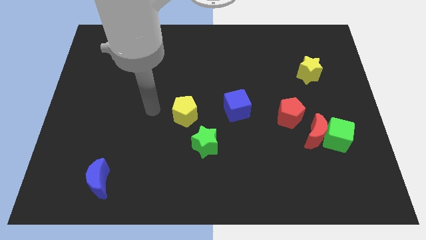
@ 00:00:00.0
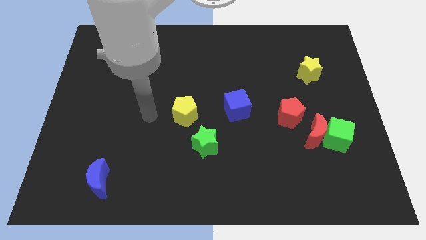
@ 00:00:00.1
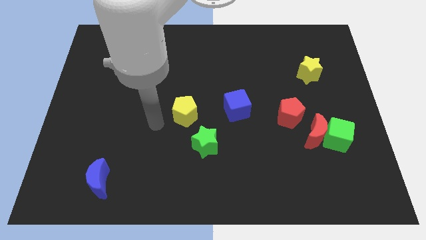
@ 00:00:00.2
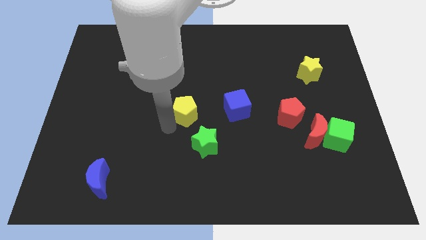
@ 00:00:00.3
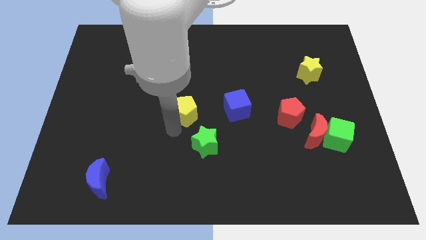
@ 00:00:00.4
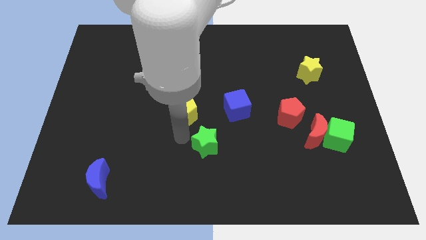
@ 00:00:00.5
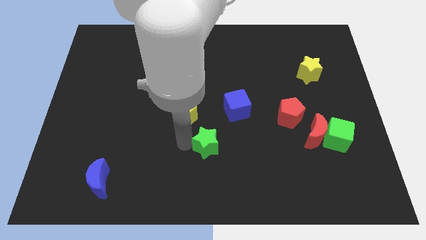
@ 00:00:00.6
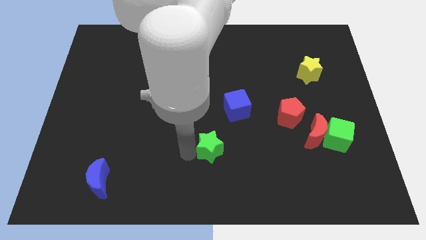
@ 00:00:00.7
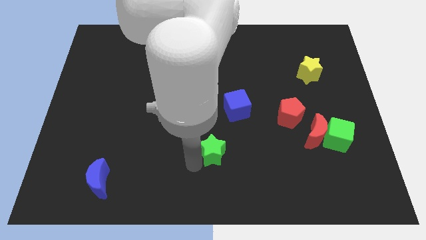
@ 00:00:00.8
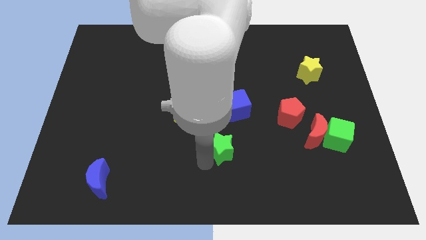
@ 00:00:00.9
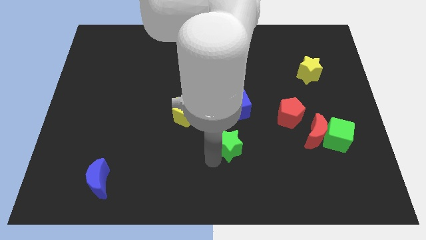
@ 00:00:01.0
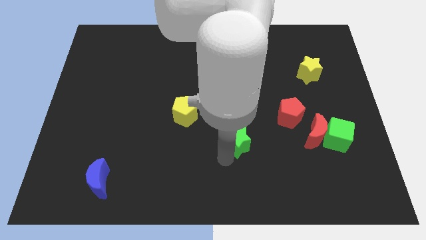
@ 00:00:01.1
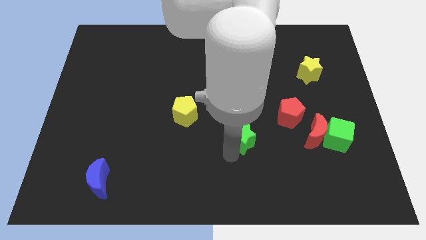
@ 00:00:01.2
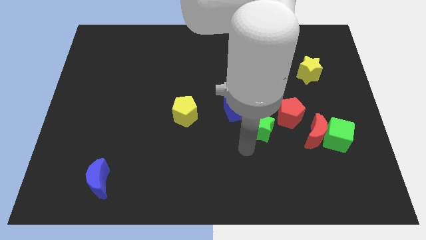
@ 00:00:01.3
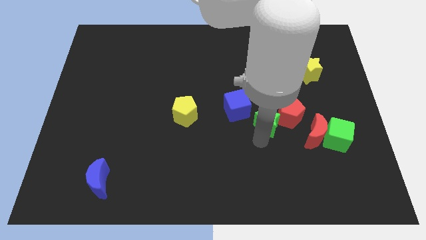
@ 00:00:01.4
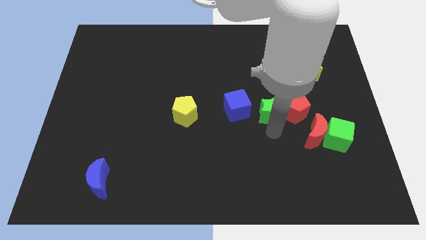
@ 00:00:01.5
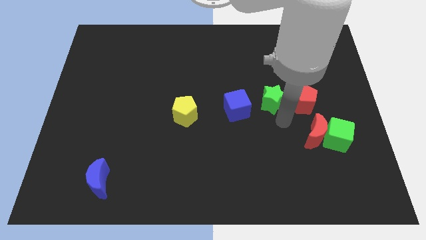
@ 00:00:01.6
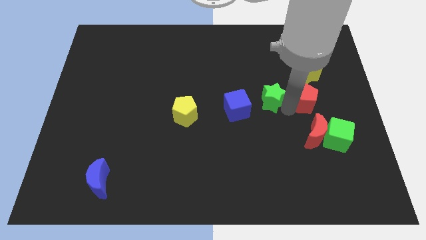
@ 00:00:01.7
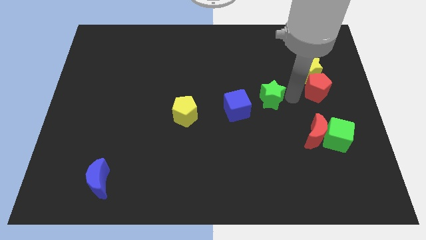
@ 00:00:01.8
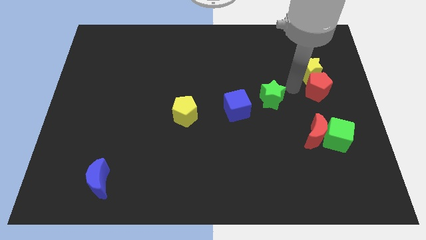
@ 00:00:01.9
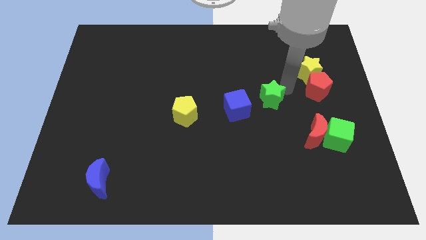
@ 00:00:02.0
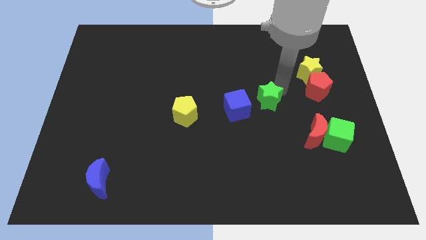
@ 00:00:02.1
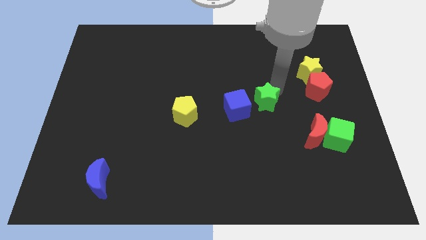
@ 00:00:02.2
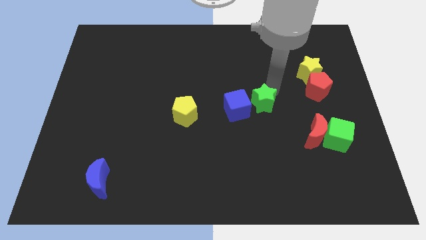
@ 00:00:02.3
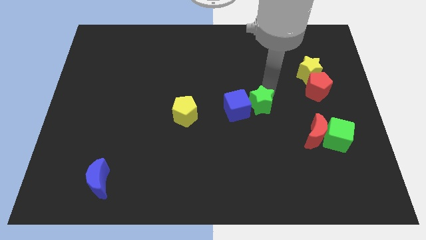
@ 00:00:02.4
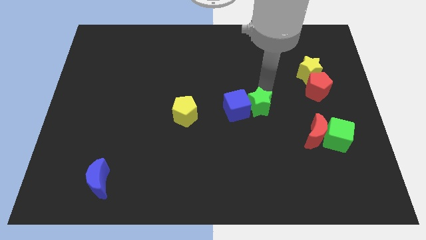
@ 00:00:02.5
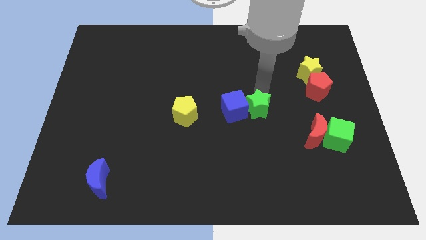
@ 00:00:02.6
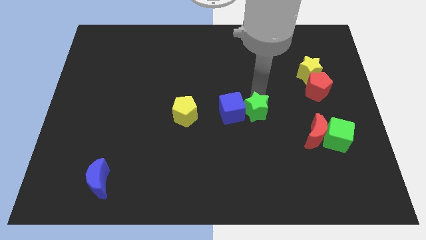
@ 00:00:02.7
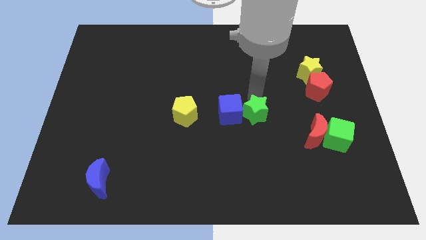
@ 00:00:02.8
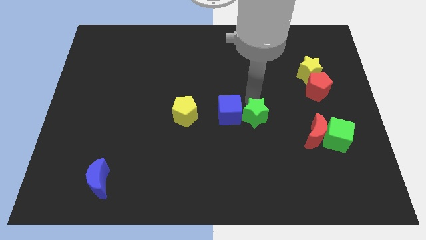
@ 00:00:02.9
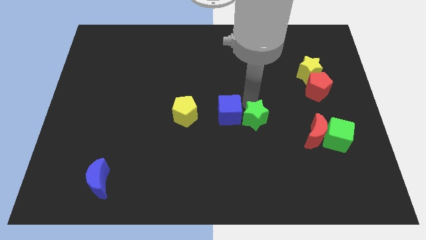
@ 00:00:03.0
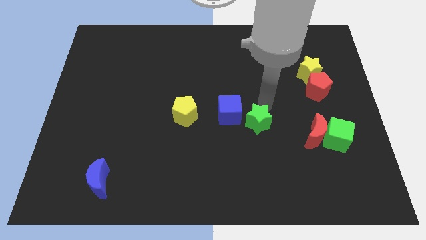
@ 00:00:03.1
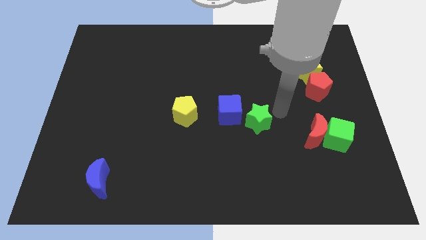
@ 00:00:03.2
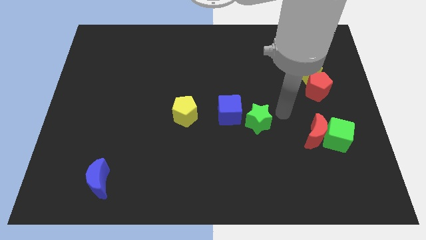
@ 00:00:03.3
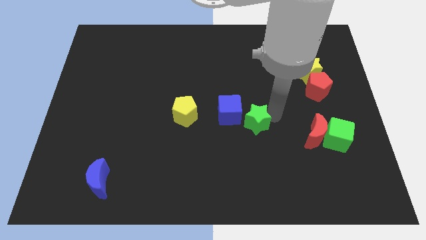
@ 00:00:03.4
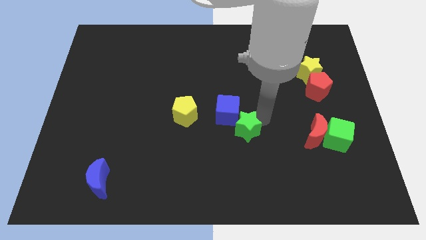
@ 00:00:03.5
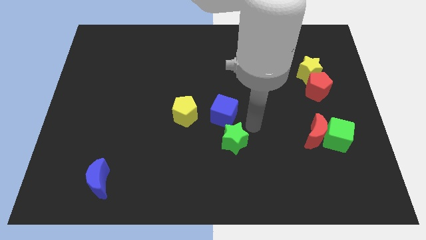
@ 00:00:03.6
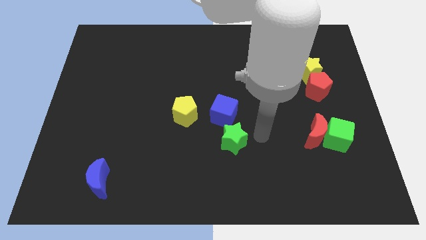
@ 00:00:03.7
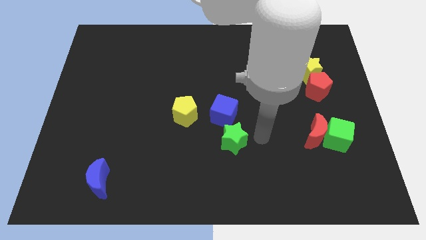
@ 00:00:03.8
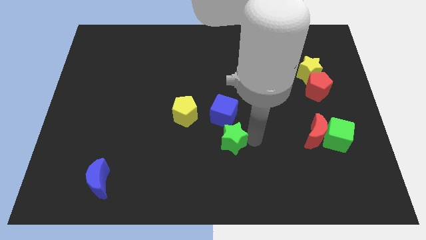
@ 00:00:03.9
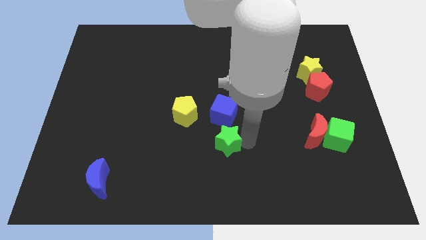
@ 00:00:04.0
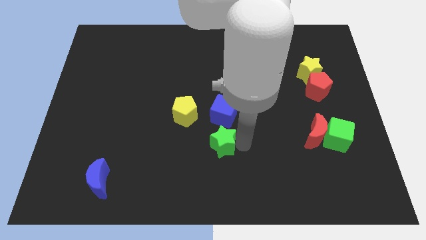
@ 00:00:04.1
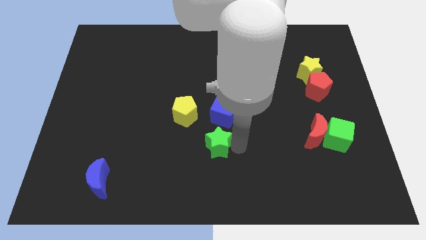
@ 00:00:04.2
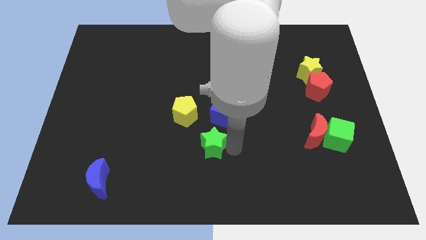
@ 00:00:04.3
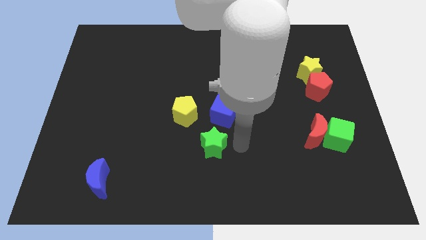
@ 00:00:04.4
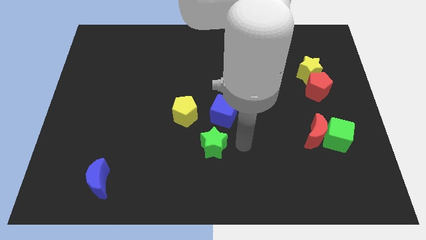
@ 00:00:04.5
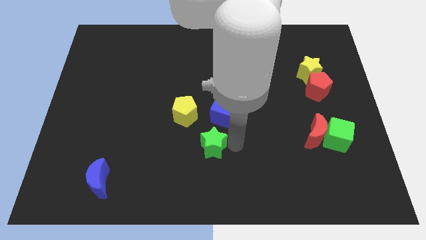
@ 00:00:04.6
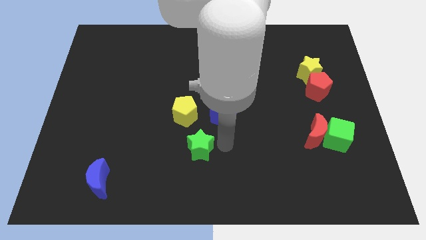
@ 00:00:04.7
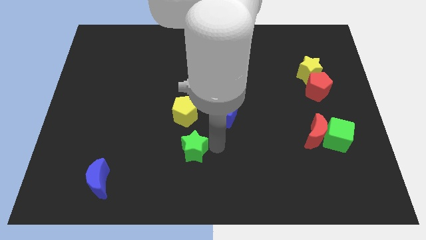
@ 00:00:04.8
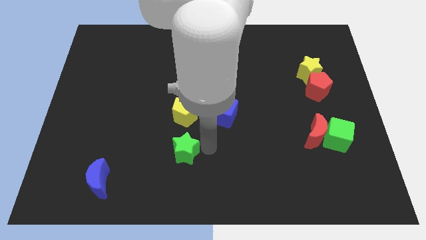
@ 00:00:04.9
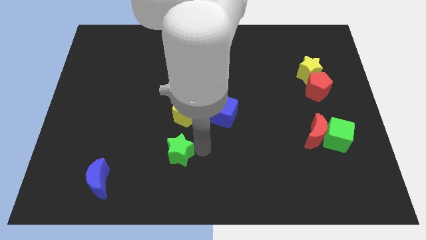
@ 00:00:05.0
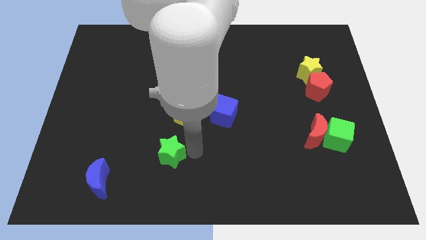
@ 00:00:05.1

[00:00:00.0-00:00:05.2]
slightly slide the green star left

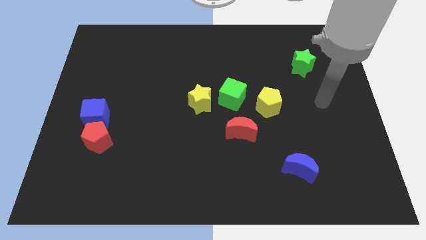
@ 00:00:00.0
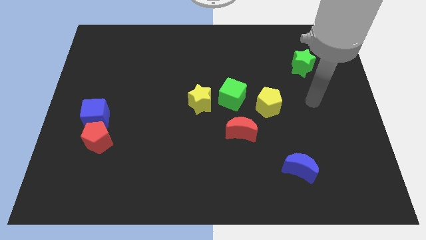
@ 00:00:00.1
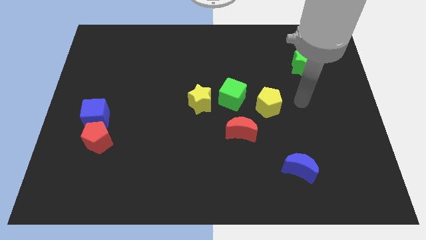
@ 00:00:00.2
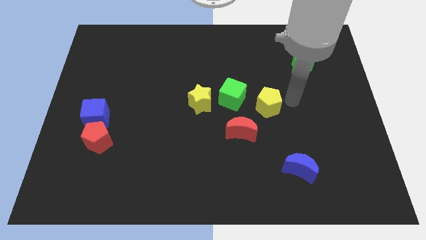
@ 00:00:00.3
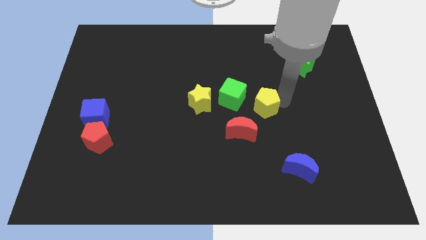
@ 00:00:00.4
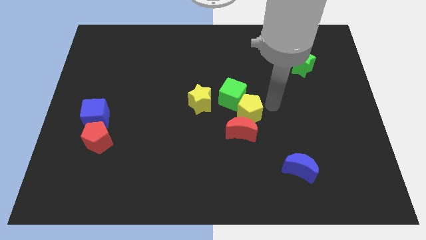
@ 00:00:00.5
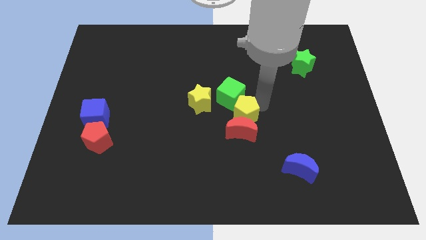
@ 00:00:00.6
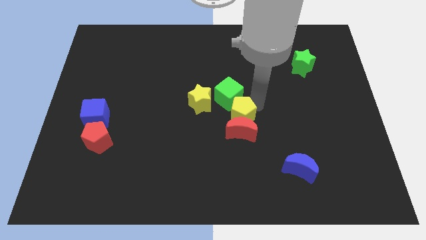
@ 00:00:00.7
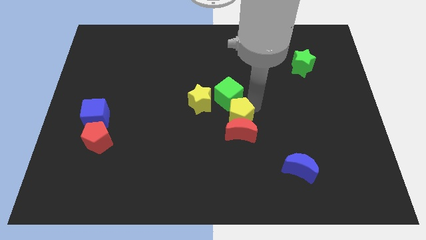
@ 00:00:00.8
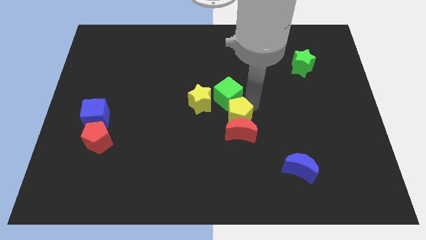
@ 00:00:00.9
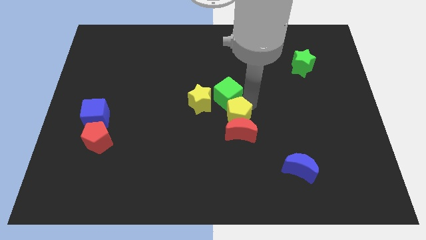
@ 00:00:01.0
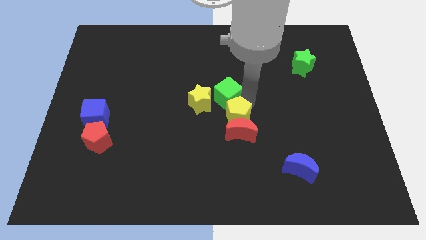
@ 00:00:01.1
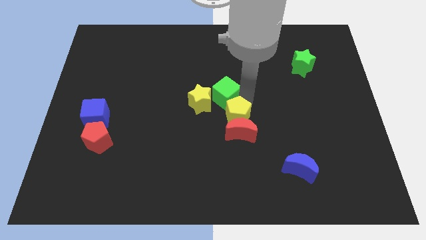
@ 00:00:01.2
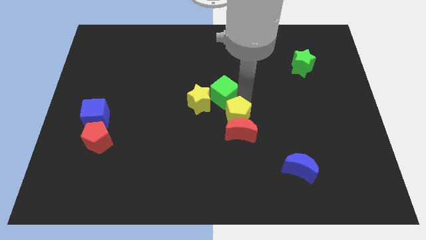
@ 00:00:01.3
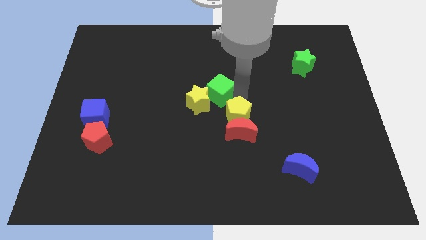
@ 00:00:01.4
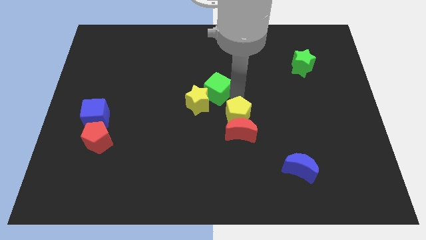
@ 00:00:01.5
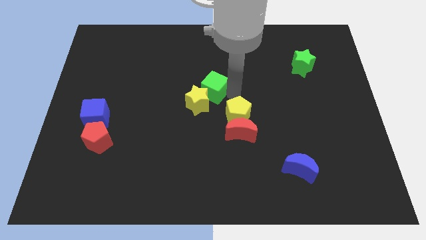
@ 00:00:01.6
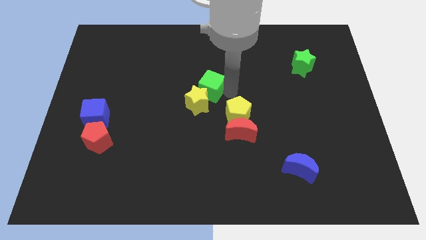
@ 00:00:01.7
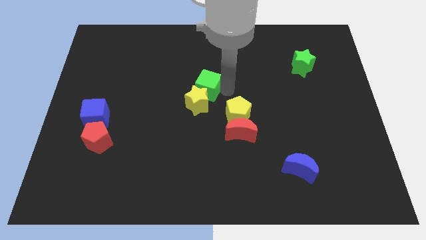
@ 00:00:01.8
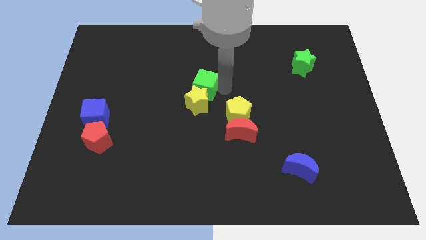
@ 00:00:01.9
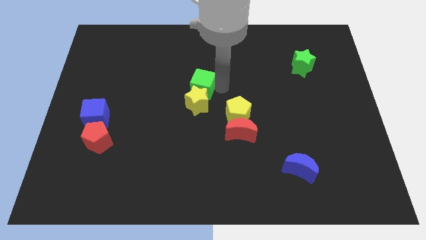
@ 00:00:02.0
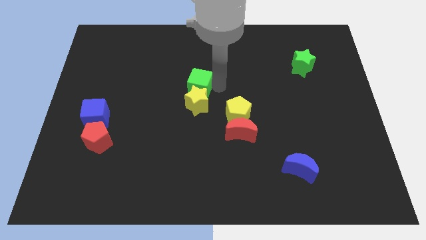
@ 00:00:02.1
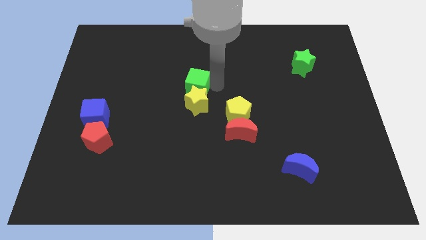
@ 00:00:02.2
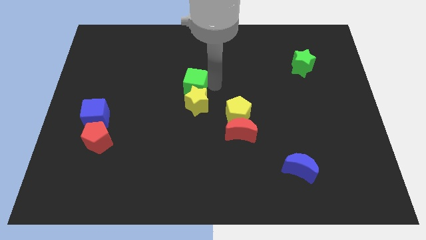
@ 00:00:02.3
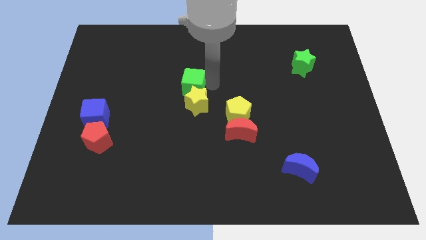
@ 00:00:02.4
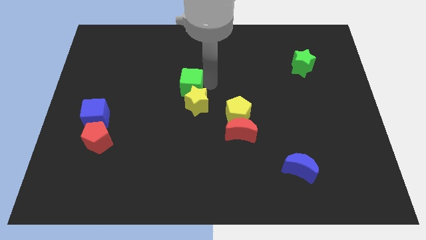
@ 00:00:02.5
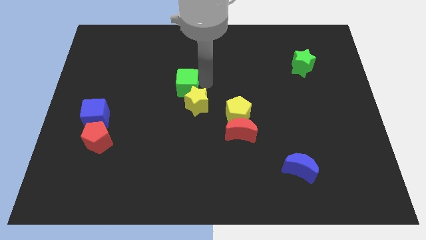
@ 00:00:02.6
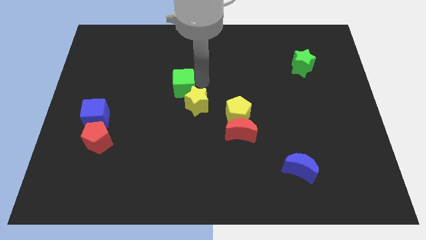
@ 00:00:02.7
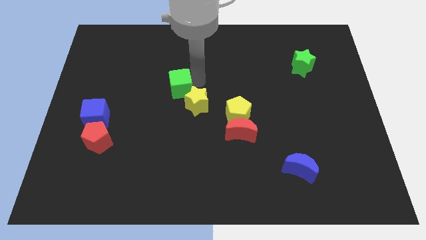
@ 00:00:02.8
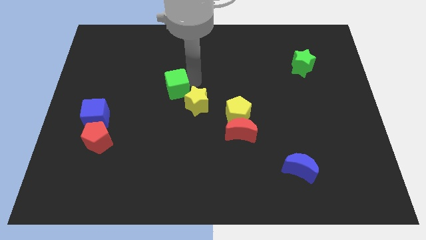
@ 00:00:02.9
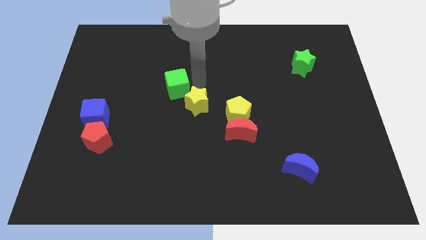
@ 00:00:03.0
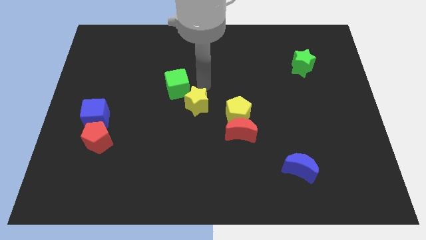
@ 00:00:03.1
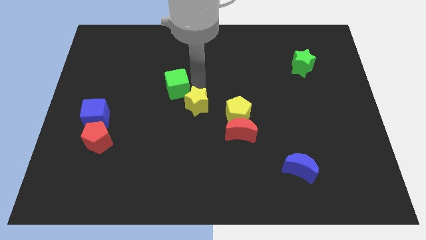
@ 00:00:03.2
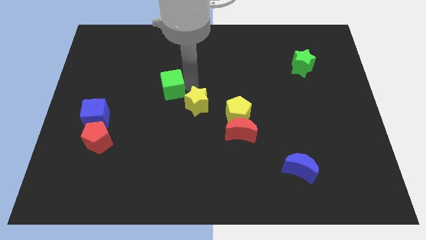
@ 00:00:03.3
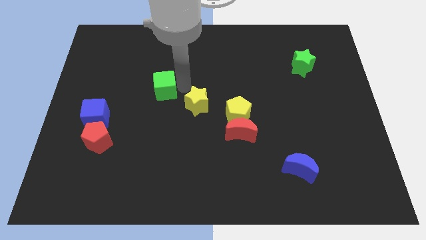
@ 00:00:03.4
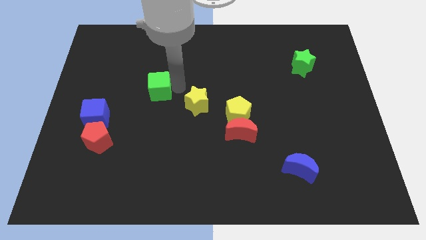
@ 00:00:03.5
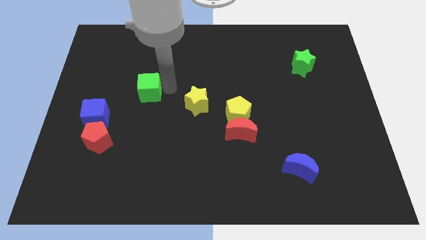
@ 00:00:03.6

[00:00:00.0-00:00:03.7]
push the green cube to the left
